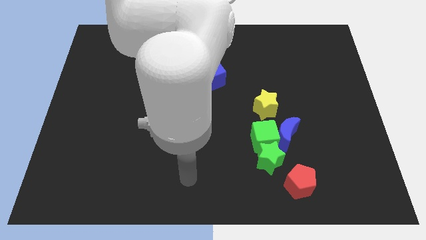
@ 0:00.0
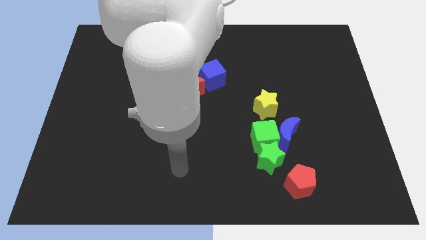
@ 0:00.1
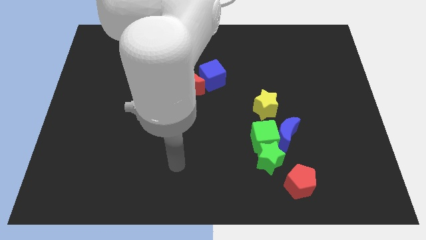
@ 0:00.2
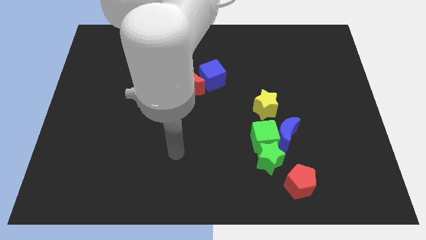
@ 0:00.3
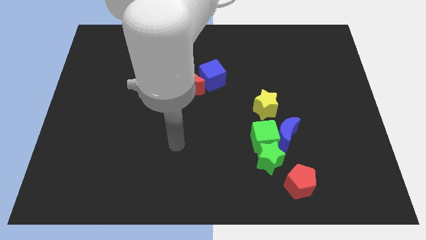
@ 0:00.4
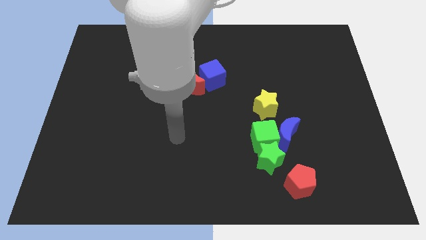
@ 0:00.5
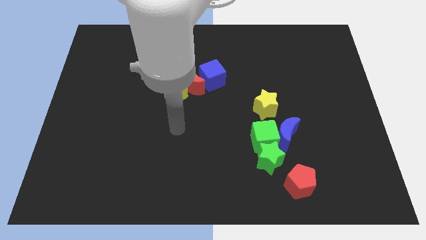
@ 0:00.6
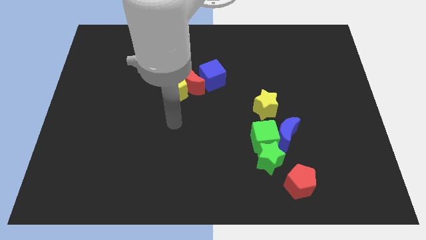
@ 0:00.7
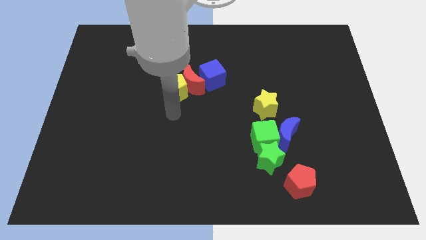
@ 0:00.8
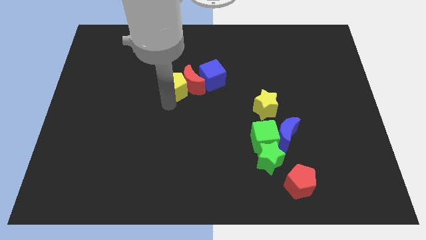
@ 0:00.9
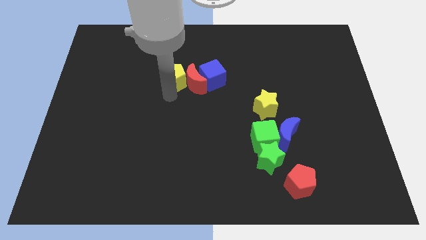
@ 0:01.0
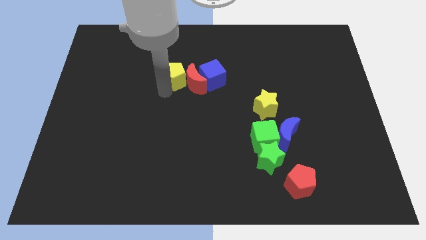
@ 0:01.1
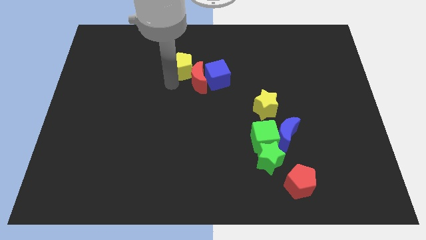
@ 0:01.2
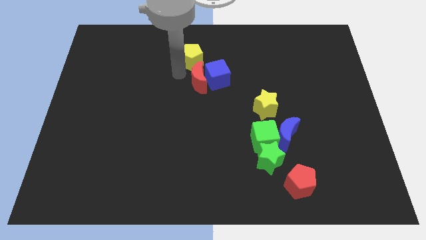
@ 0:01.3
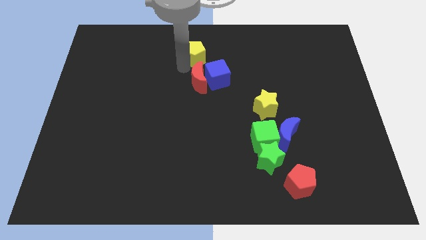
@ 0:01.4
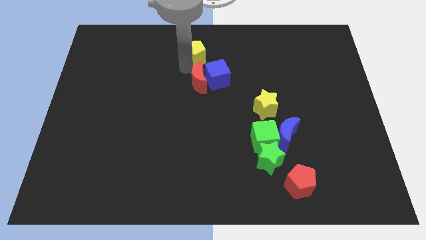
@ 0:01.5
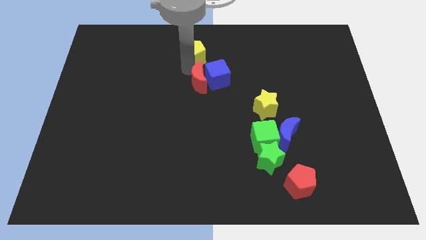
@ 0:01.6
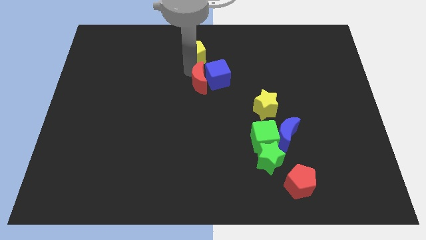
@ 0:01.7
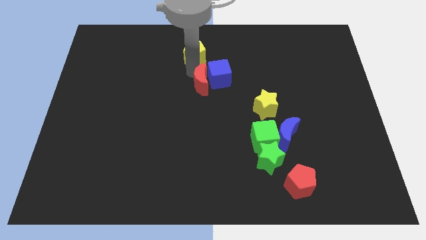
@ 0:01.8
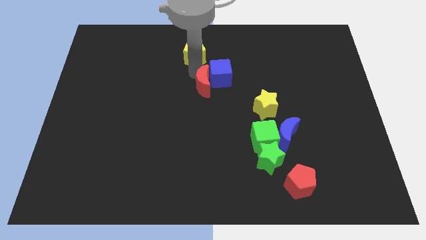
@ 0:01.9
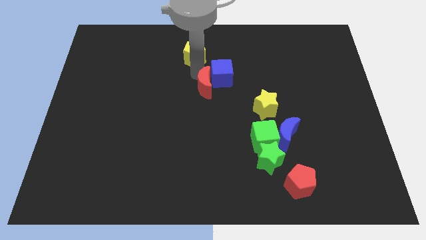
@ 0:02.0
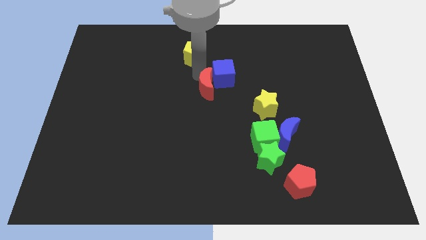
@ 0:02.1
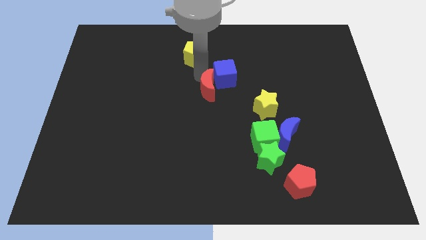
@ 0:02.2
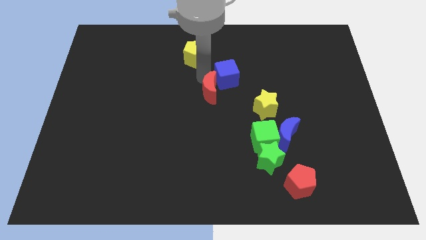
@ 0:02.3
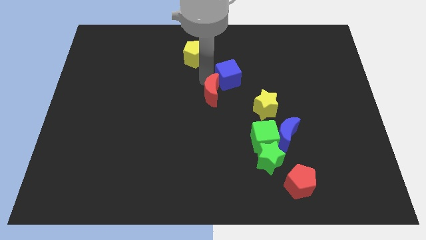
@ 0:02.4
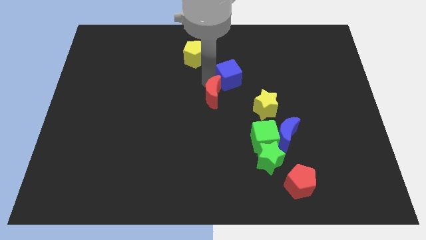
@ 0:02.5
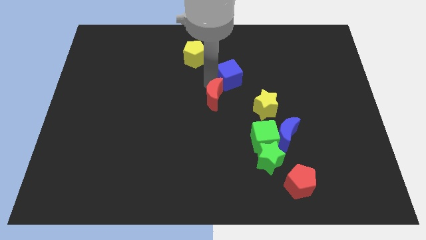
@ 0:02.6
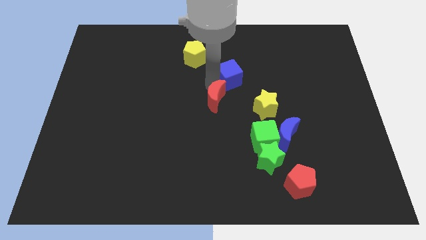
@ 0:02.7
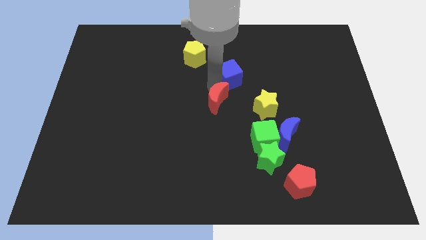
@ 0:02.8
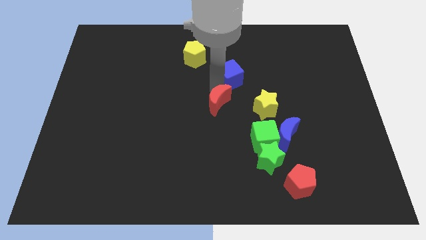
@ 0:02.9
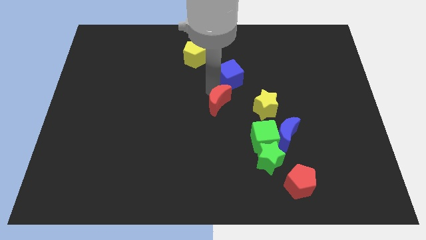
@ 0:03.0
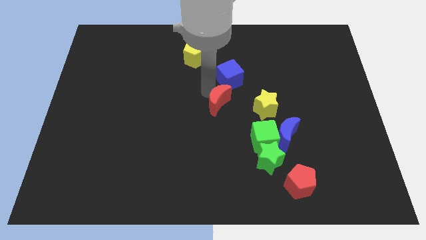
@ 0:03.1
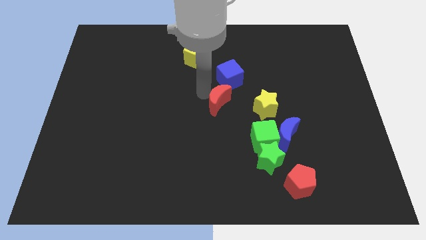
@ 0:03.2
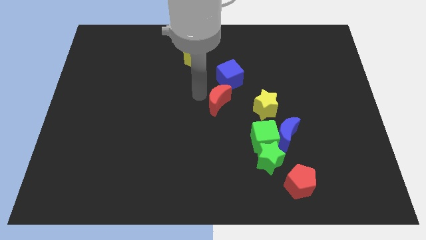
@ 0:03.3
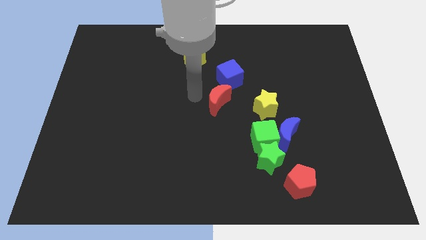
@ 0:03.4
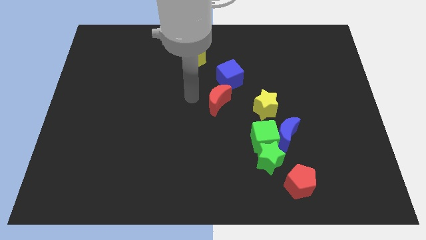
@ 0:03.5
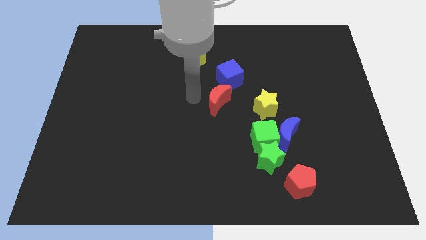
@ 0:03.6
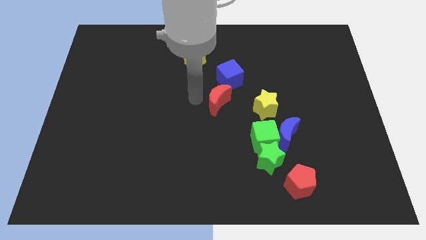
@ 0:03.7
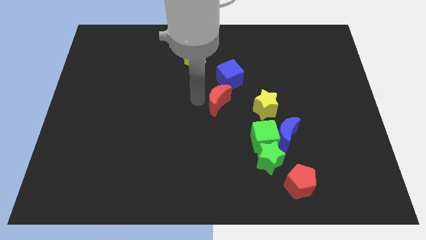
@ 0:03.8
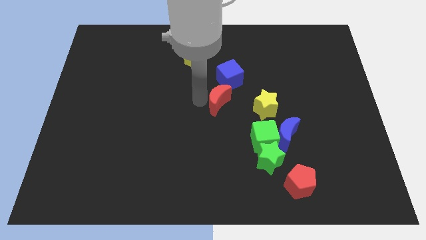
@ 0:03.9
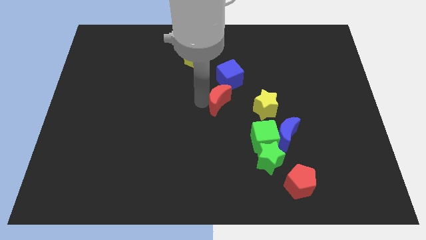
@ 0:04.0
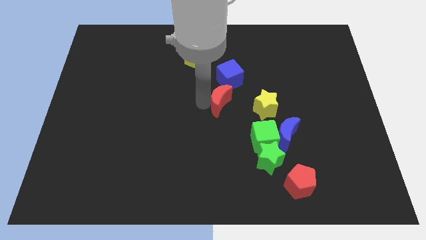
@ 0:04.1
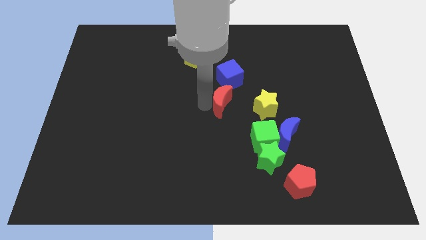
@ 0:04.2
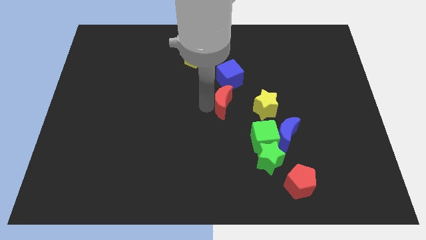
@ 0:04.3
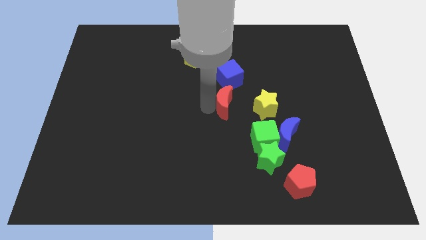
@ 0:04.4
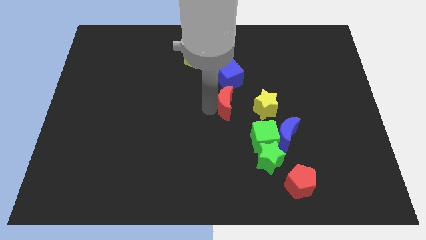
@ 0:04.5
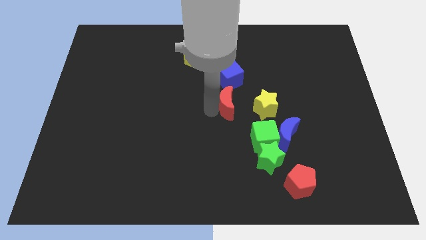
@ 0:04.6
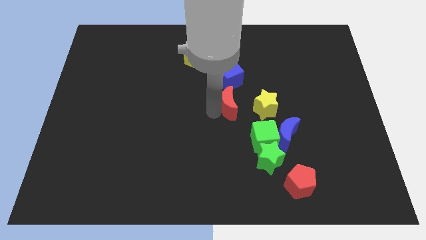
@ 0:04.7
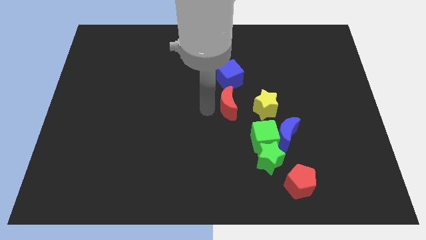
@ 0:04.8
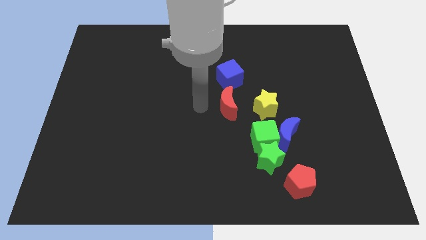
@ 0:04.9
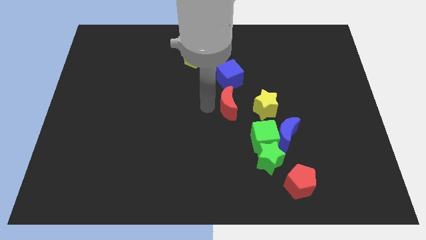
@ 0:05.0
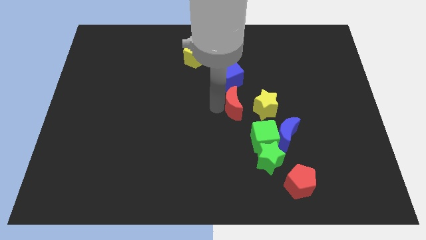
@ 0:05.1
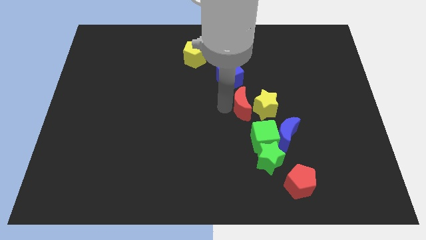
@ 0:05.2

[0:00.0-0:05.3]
put the red moon towards the yellow star
